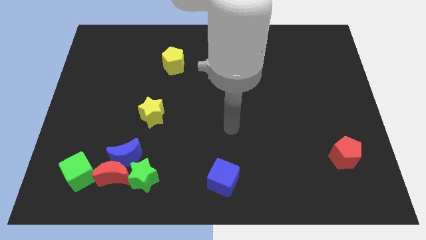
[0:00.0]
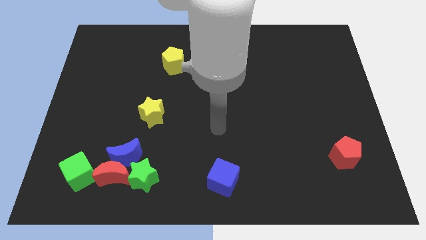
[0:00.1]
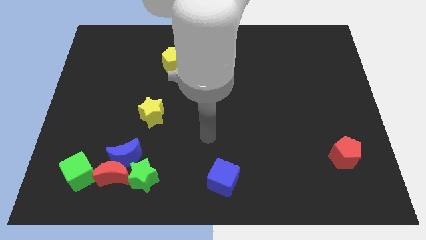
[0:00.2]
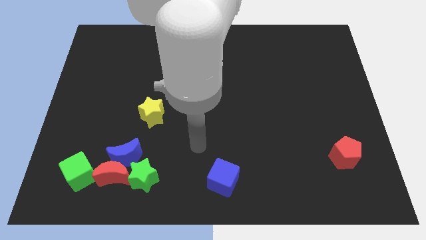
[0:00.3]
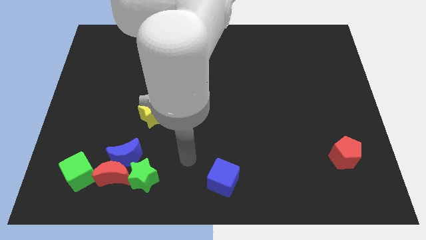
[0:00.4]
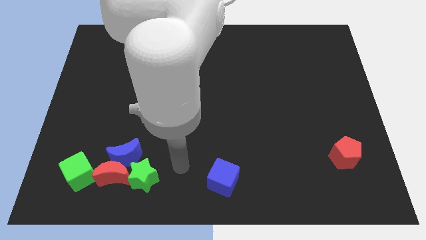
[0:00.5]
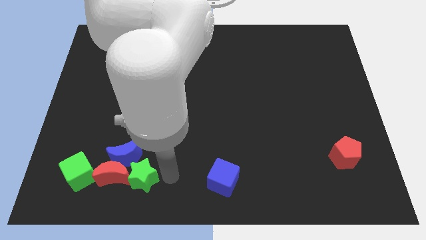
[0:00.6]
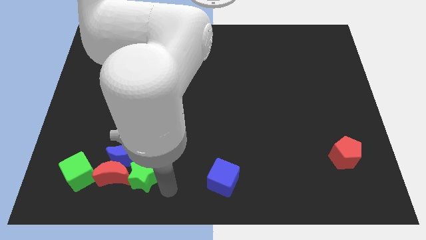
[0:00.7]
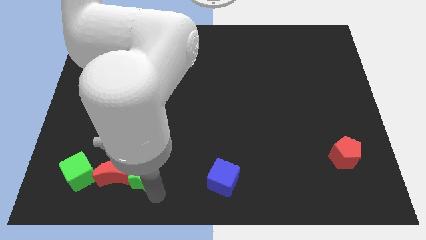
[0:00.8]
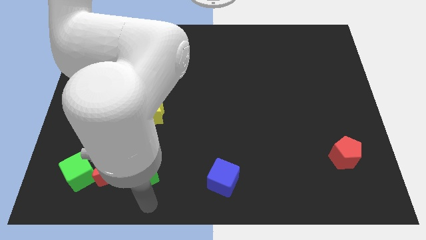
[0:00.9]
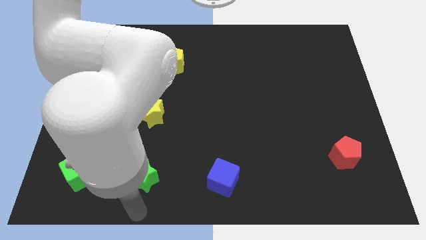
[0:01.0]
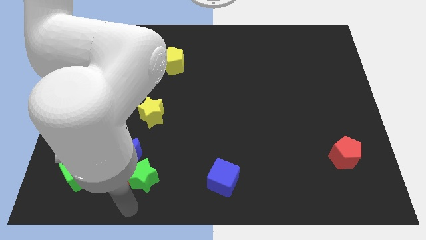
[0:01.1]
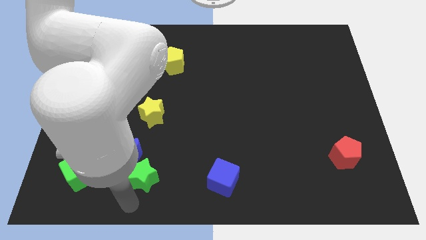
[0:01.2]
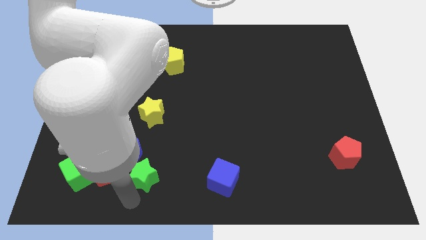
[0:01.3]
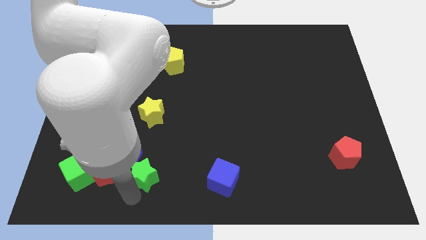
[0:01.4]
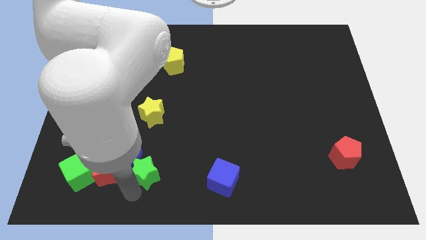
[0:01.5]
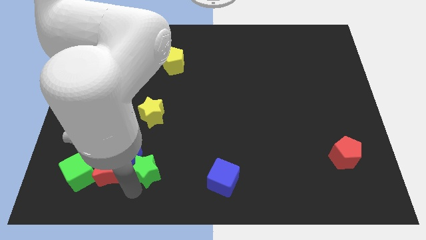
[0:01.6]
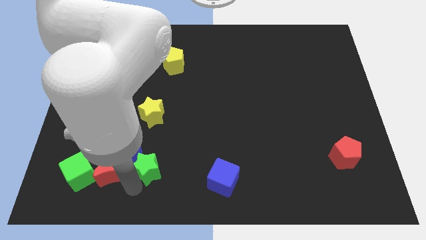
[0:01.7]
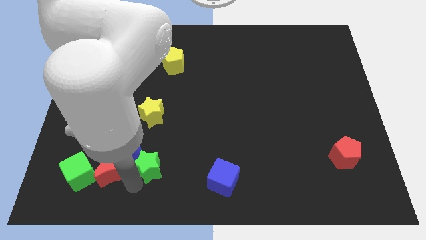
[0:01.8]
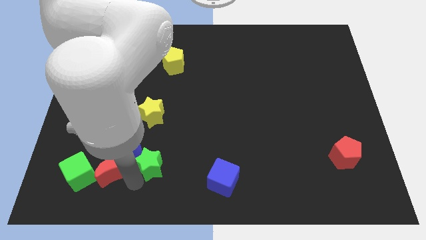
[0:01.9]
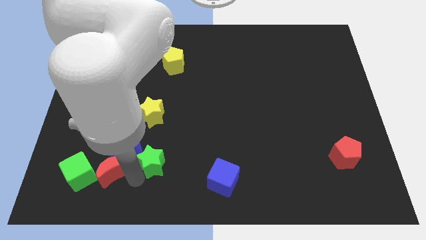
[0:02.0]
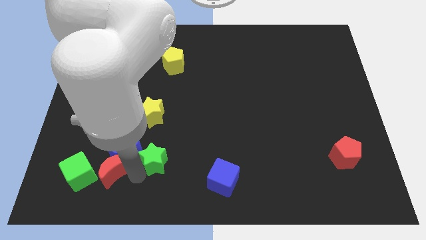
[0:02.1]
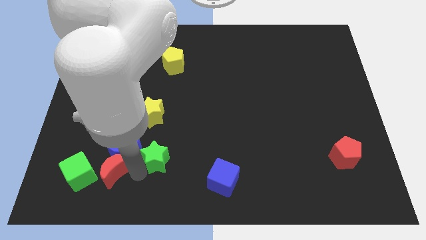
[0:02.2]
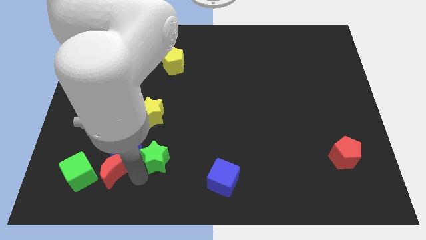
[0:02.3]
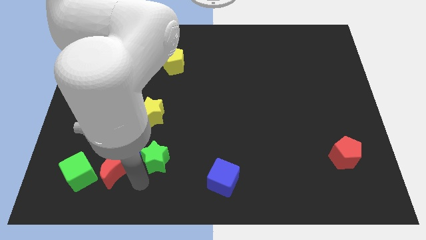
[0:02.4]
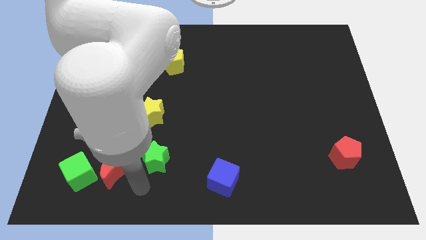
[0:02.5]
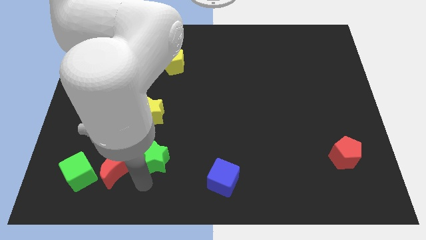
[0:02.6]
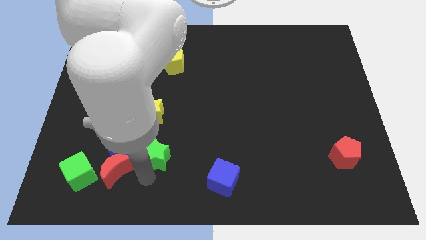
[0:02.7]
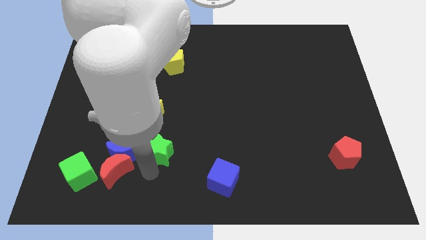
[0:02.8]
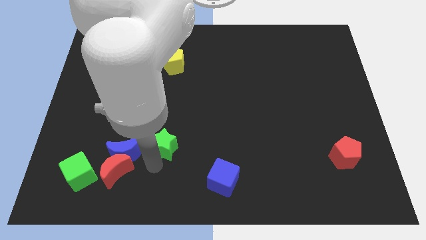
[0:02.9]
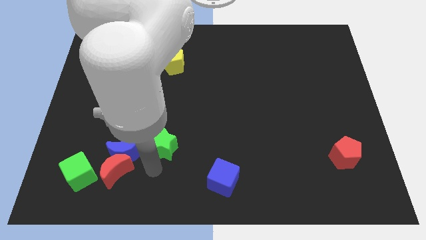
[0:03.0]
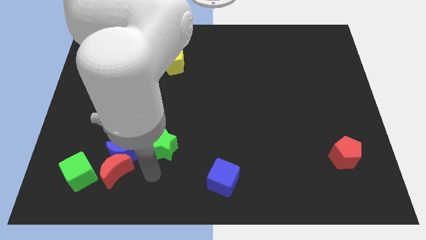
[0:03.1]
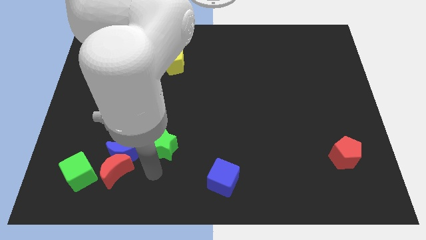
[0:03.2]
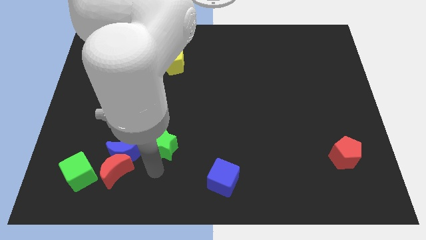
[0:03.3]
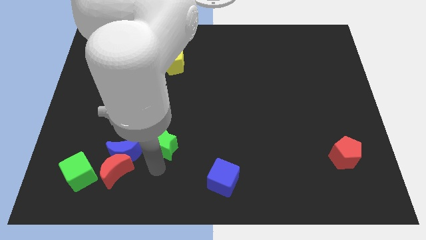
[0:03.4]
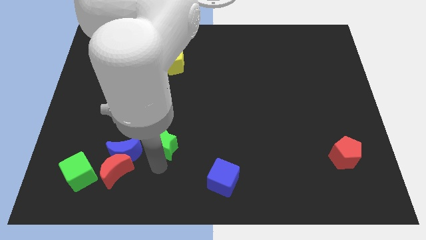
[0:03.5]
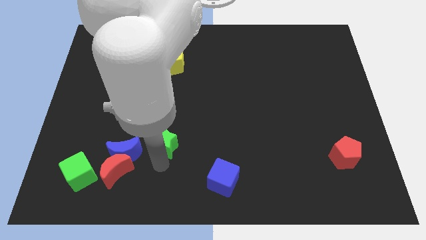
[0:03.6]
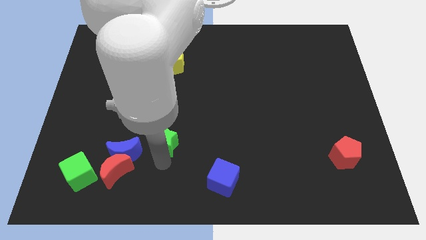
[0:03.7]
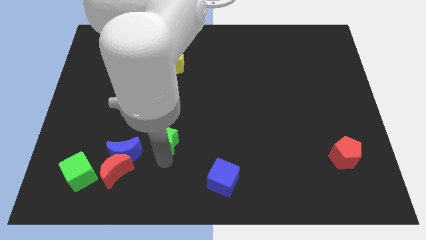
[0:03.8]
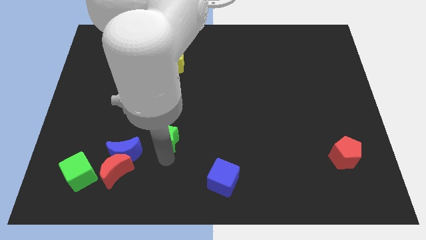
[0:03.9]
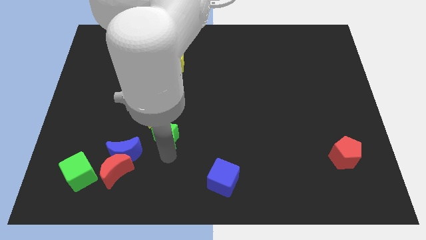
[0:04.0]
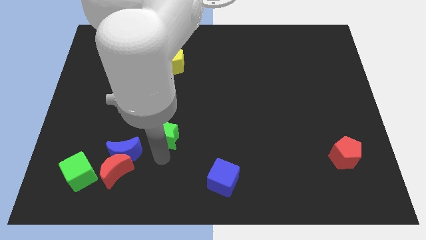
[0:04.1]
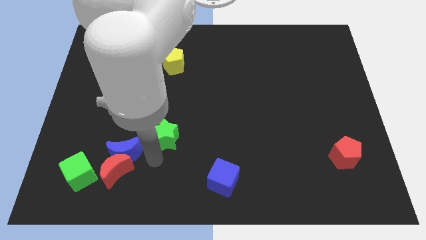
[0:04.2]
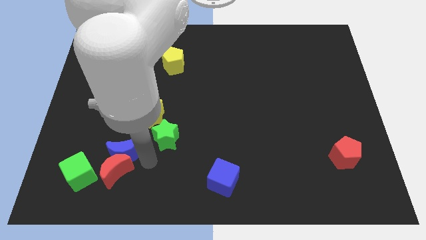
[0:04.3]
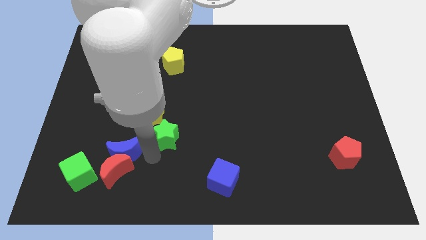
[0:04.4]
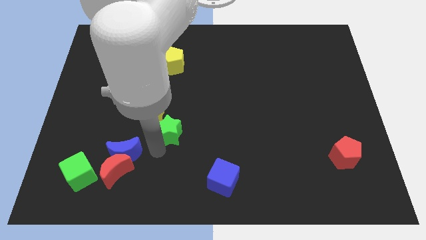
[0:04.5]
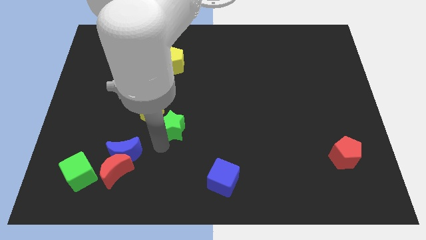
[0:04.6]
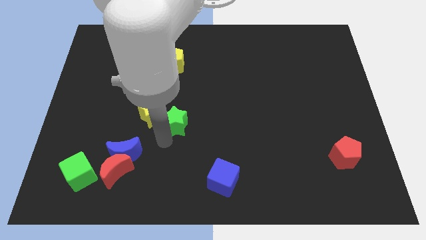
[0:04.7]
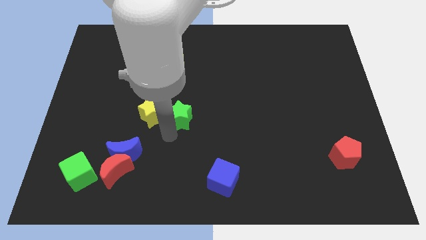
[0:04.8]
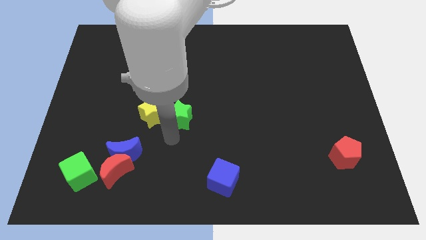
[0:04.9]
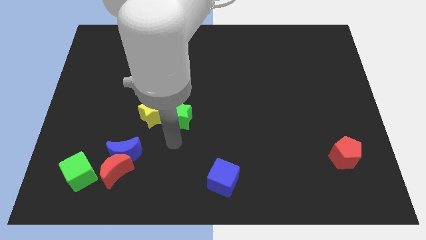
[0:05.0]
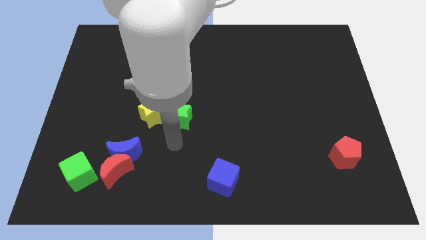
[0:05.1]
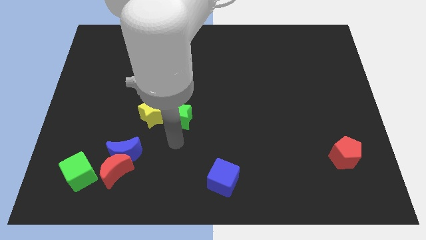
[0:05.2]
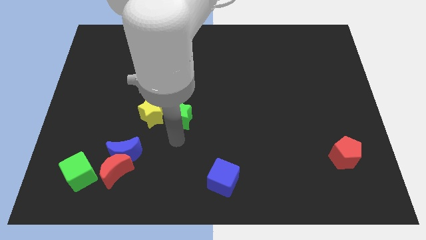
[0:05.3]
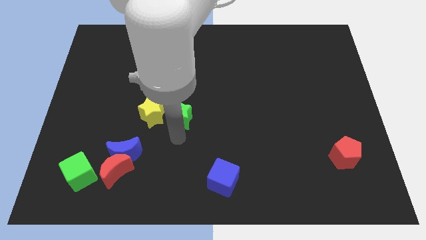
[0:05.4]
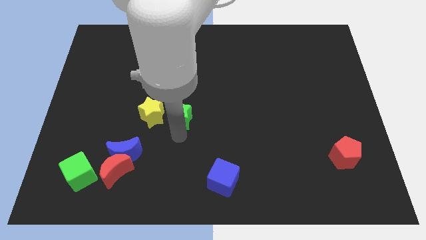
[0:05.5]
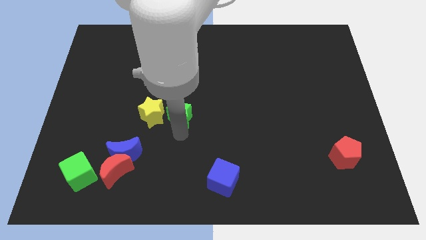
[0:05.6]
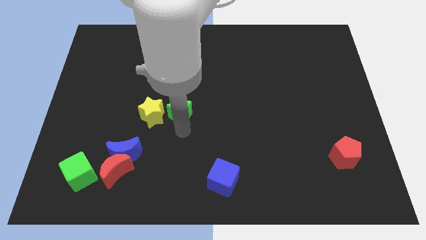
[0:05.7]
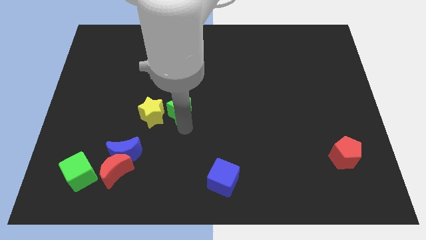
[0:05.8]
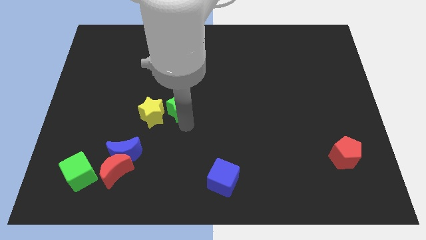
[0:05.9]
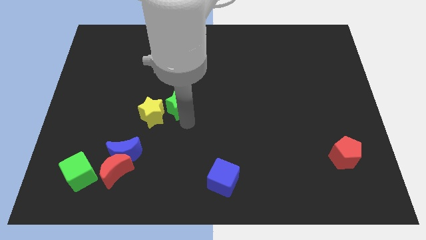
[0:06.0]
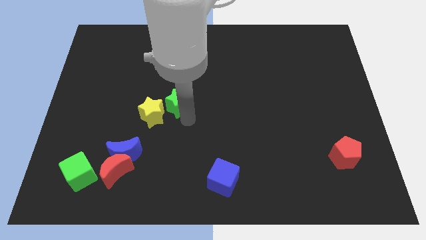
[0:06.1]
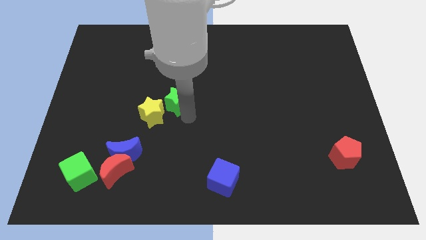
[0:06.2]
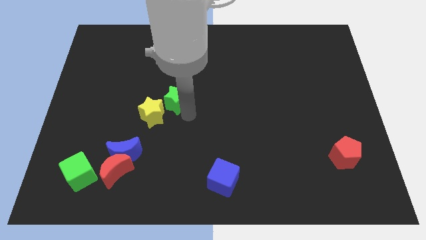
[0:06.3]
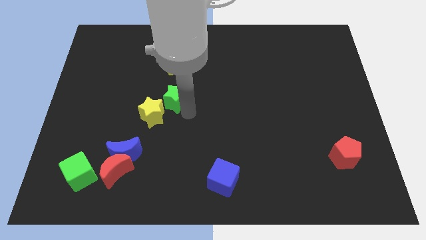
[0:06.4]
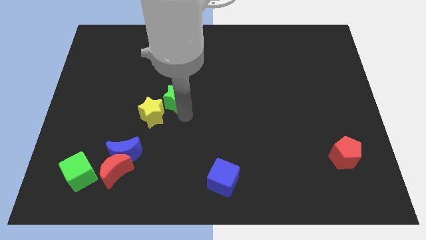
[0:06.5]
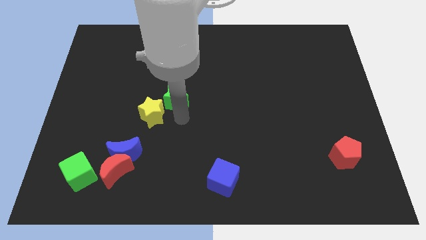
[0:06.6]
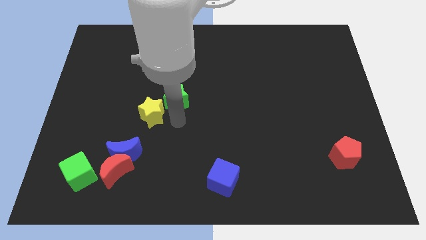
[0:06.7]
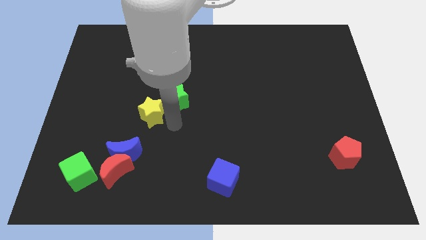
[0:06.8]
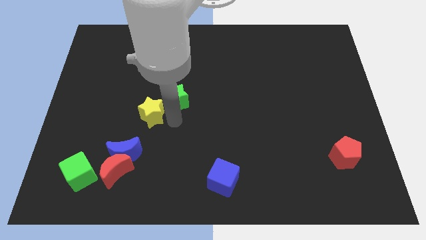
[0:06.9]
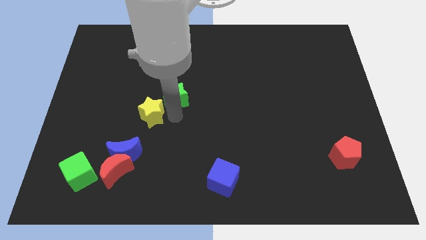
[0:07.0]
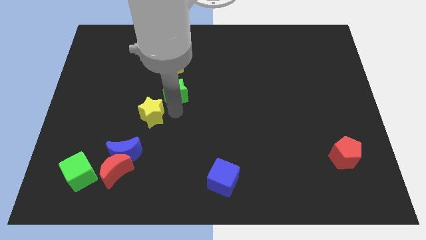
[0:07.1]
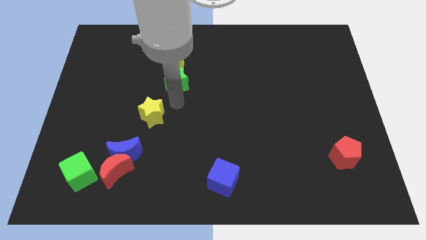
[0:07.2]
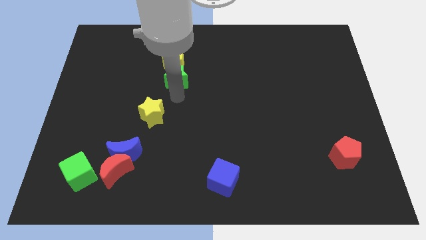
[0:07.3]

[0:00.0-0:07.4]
slide the green star towards the yellow pentagon
